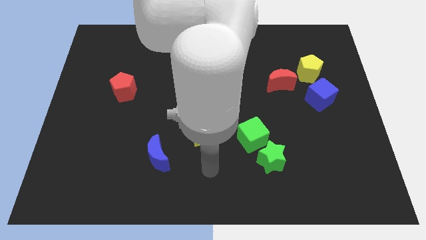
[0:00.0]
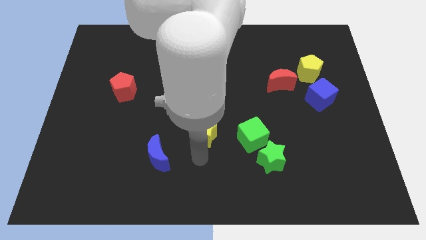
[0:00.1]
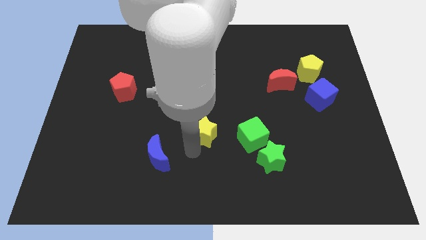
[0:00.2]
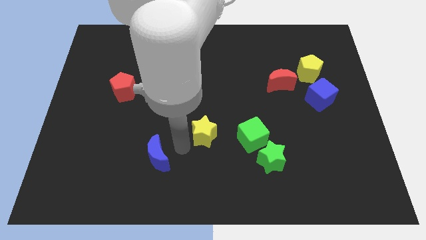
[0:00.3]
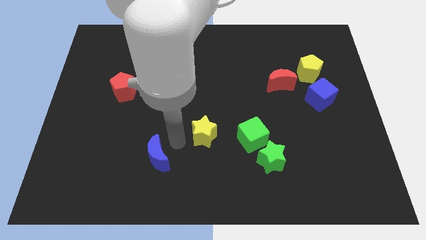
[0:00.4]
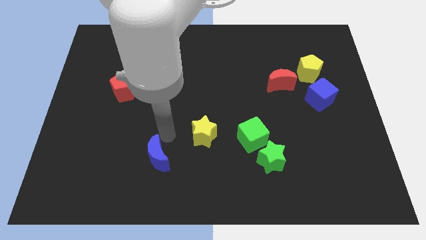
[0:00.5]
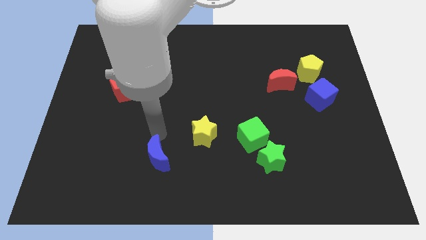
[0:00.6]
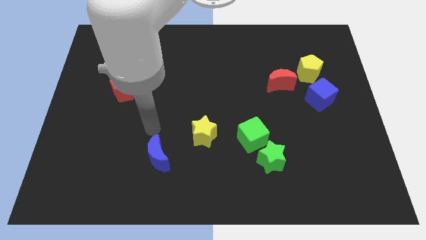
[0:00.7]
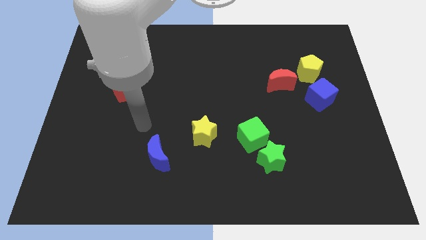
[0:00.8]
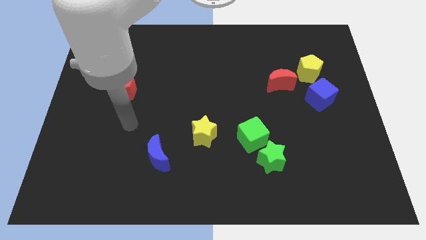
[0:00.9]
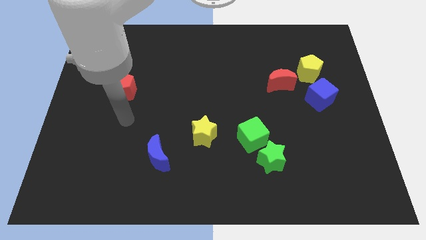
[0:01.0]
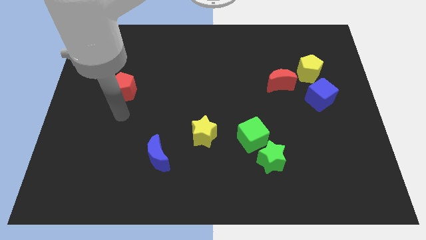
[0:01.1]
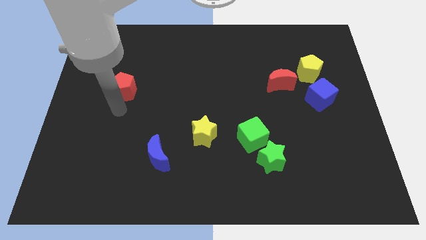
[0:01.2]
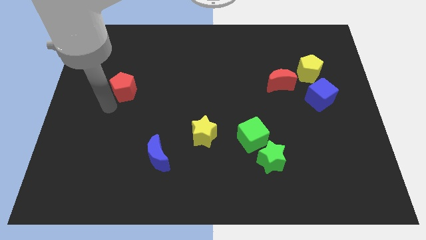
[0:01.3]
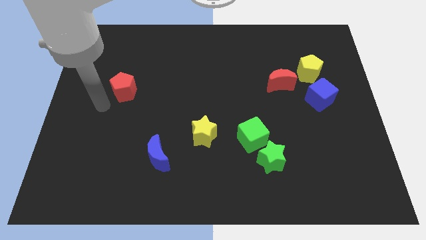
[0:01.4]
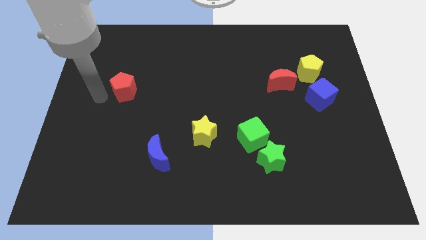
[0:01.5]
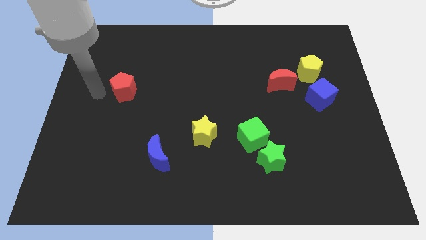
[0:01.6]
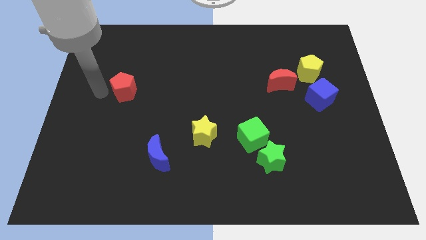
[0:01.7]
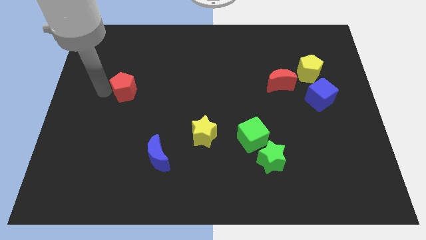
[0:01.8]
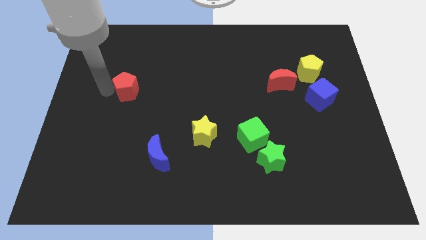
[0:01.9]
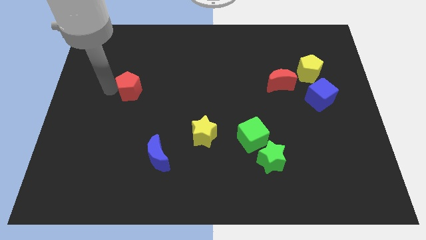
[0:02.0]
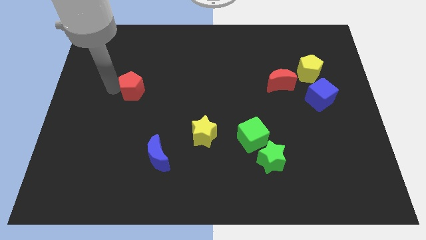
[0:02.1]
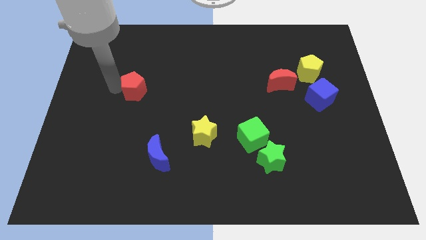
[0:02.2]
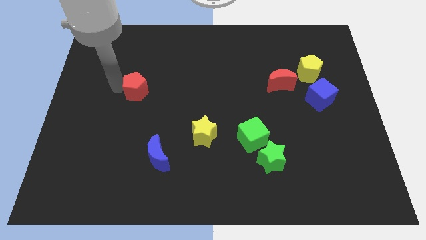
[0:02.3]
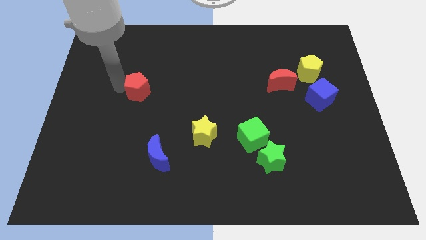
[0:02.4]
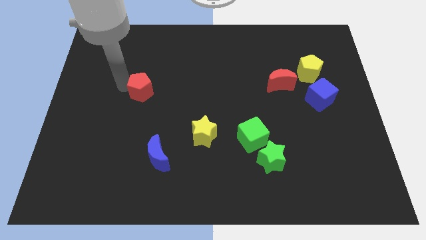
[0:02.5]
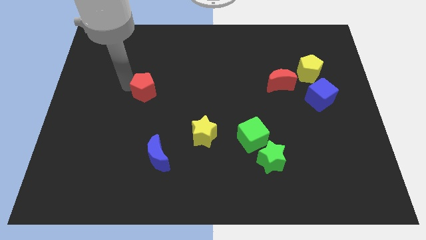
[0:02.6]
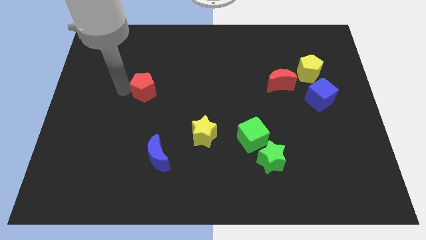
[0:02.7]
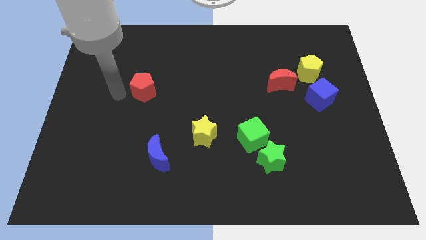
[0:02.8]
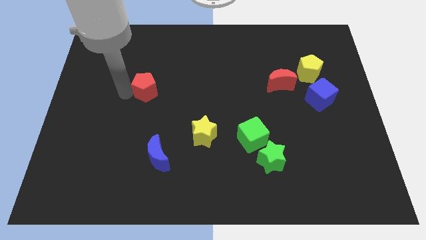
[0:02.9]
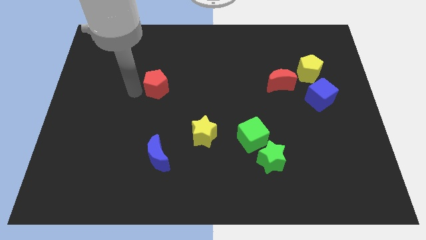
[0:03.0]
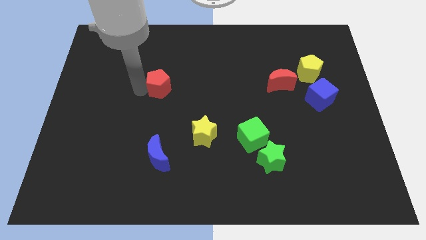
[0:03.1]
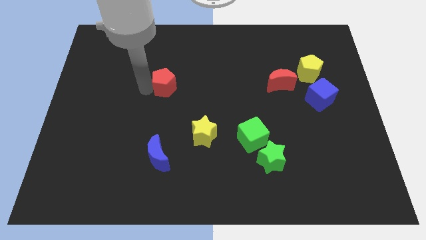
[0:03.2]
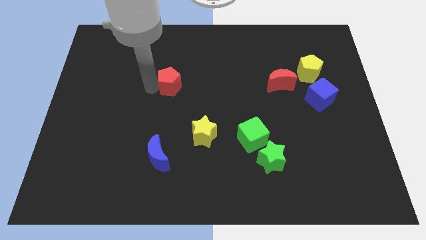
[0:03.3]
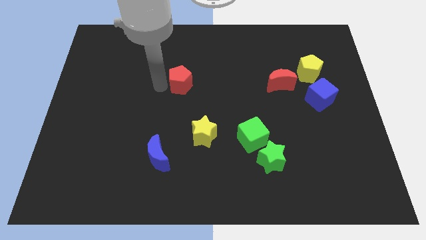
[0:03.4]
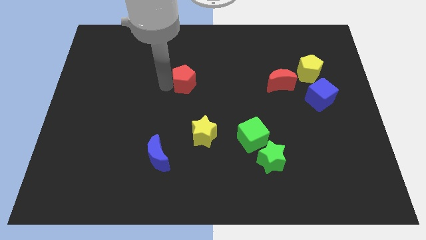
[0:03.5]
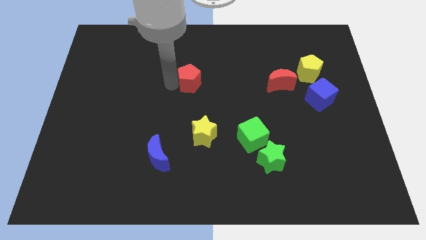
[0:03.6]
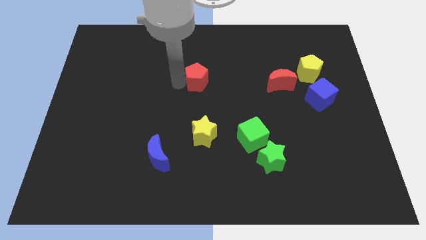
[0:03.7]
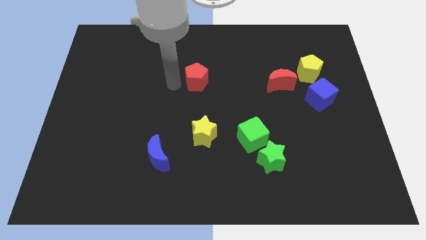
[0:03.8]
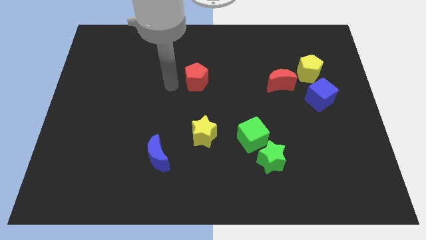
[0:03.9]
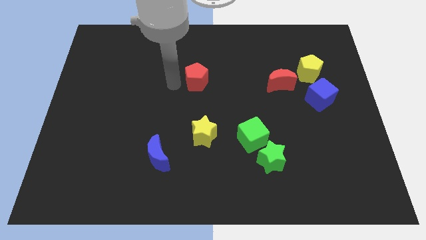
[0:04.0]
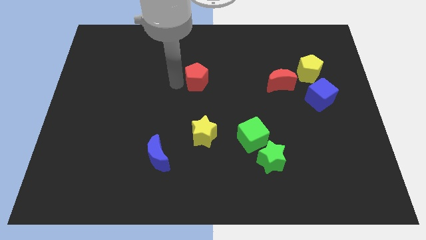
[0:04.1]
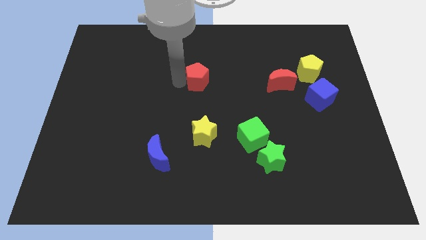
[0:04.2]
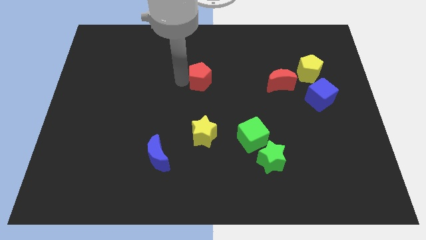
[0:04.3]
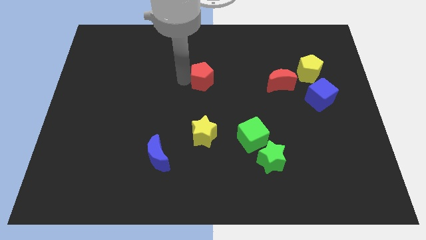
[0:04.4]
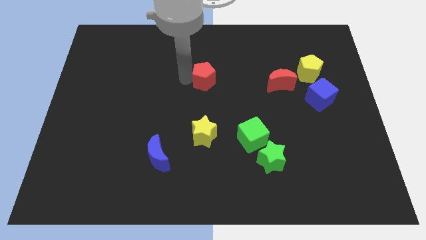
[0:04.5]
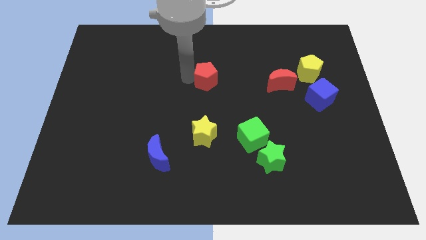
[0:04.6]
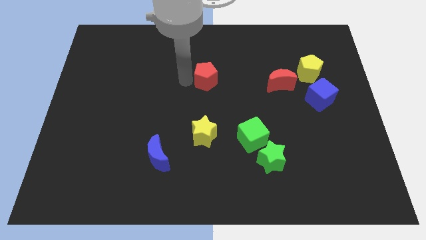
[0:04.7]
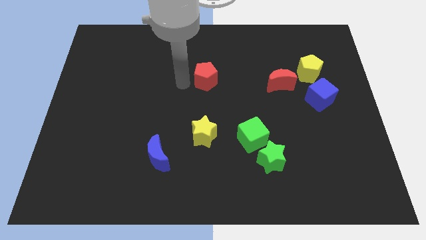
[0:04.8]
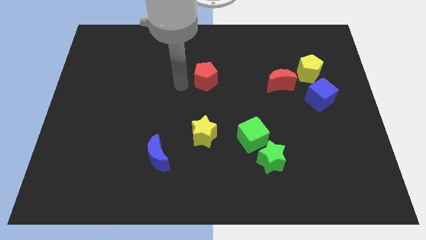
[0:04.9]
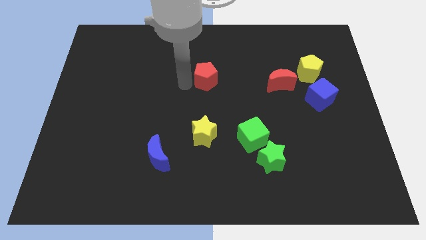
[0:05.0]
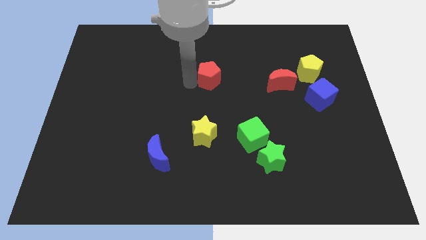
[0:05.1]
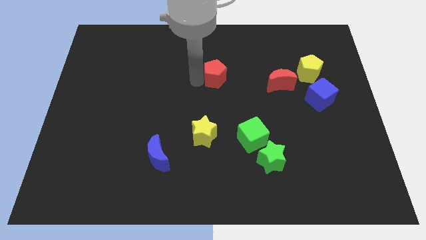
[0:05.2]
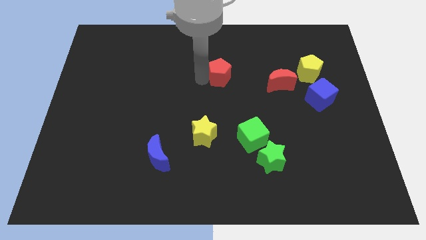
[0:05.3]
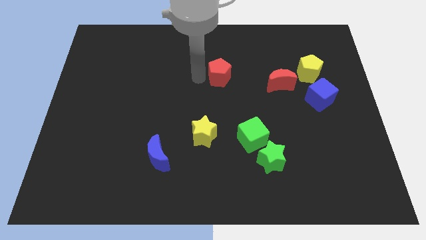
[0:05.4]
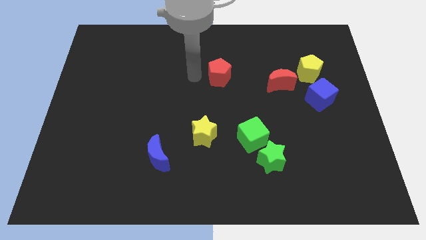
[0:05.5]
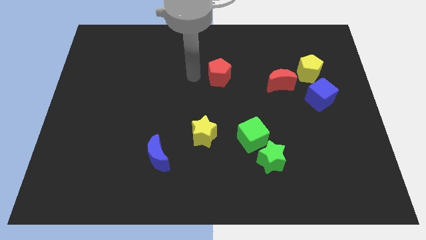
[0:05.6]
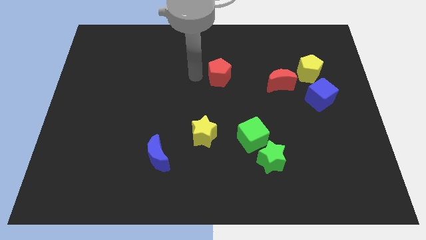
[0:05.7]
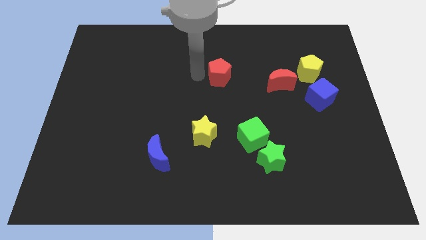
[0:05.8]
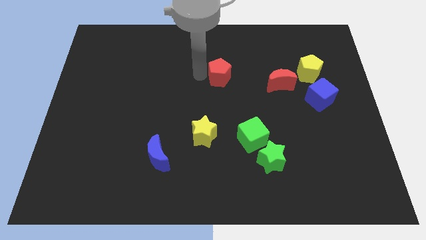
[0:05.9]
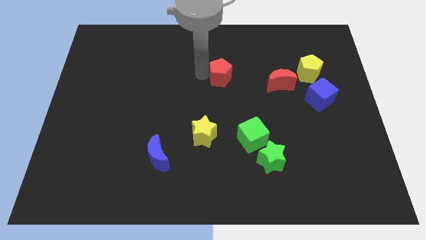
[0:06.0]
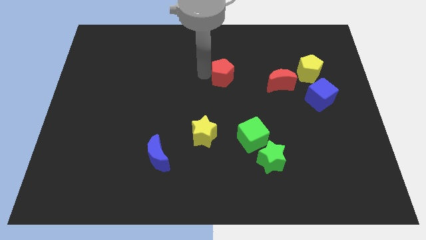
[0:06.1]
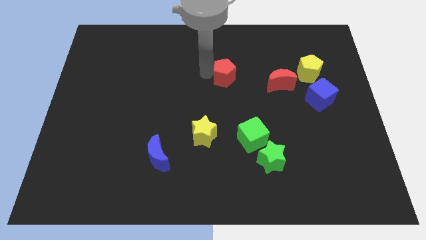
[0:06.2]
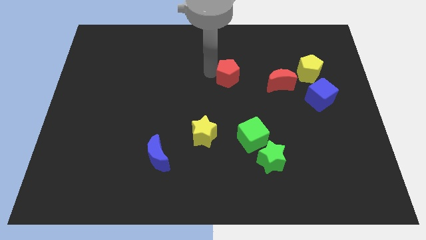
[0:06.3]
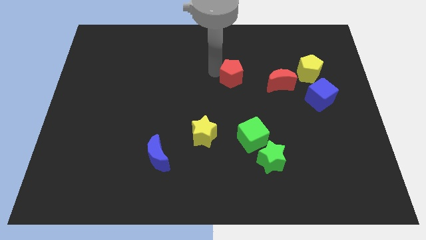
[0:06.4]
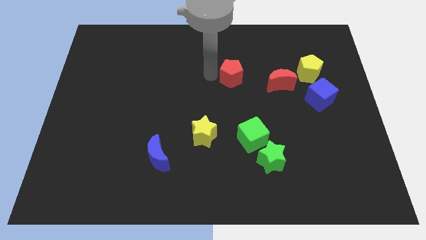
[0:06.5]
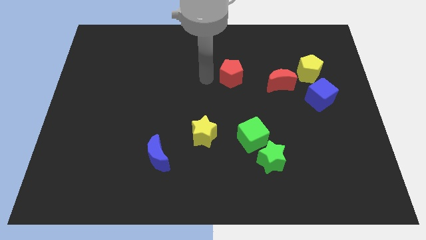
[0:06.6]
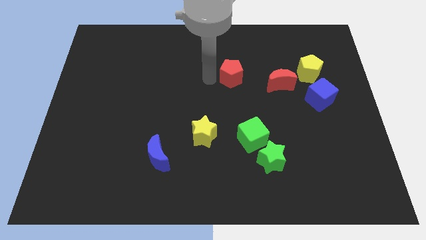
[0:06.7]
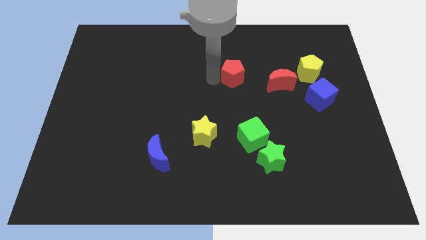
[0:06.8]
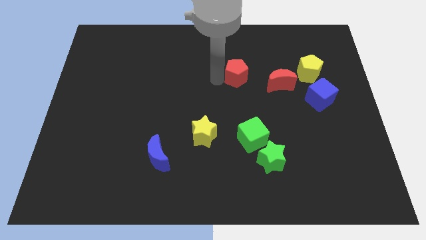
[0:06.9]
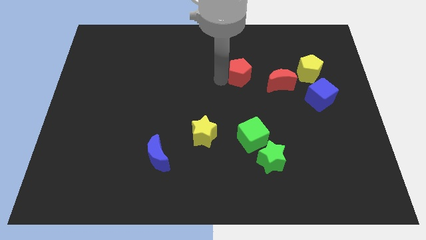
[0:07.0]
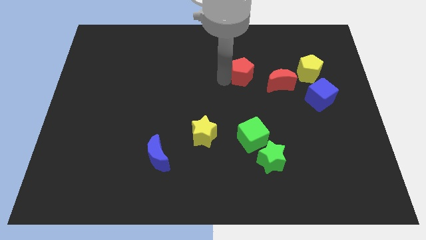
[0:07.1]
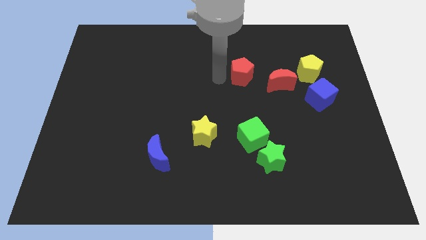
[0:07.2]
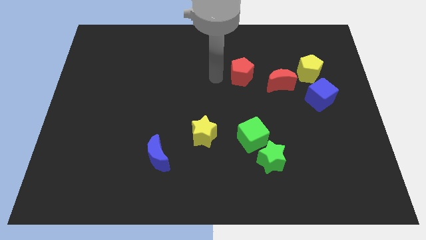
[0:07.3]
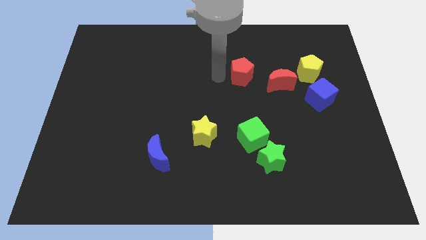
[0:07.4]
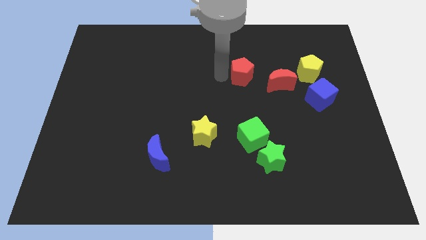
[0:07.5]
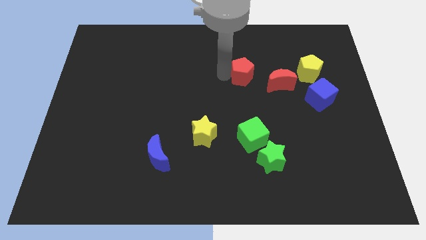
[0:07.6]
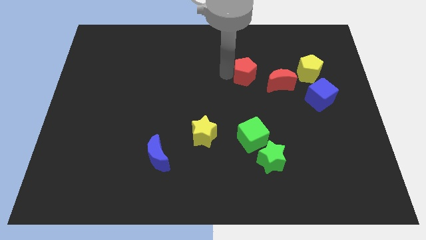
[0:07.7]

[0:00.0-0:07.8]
put the red pentagon left of the yellow pentagon
